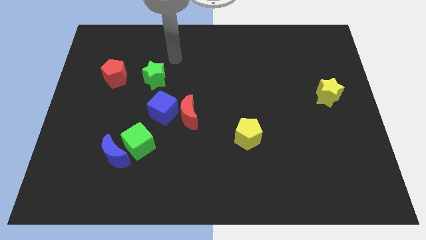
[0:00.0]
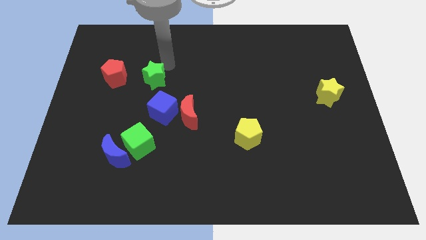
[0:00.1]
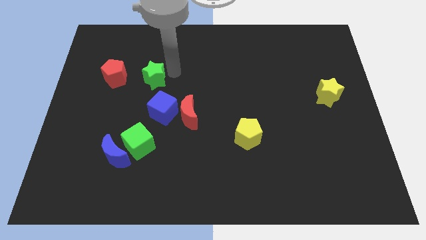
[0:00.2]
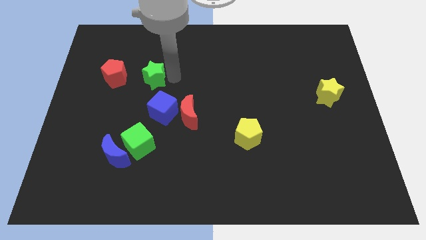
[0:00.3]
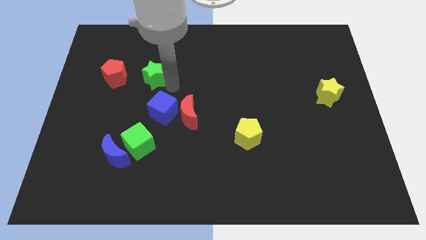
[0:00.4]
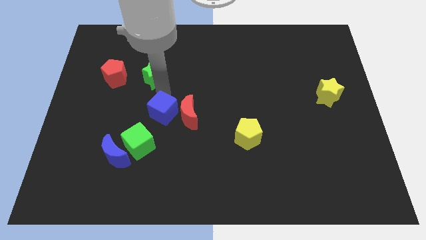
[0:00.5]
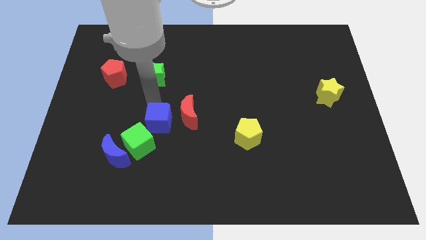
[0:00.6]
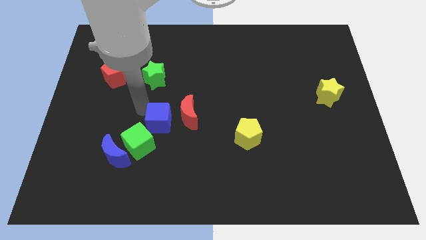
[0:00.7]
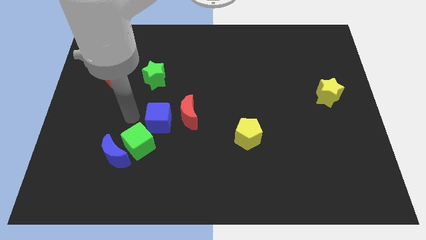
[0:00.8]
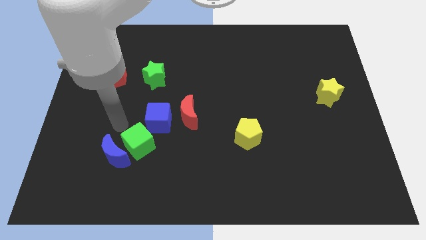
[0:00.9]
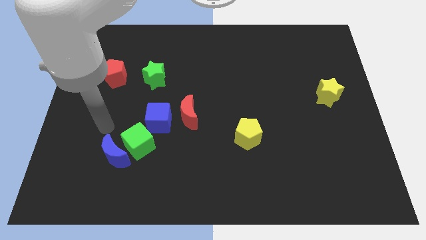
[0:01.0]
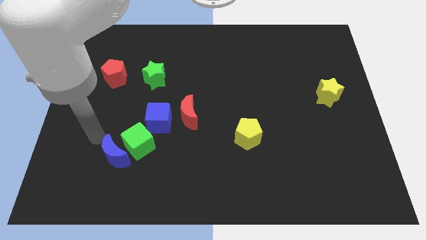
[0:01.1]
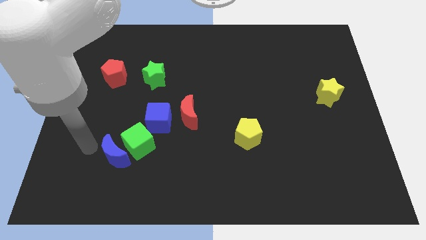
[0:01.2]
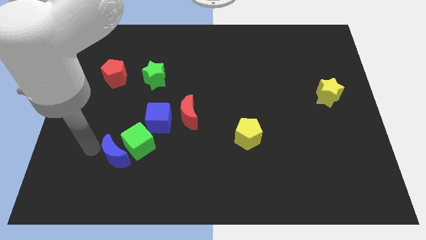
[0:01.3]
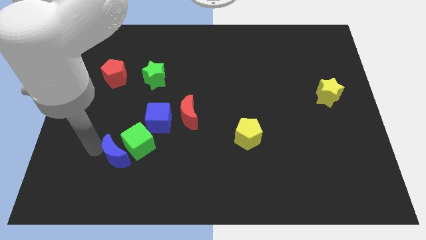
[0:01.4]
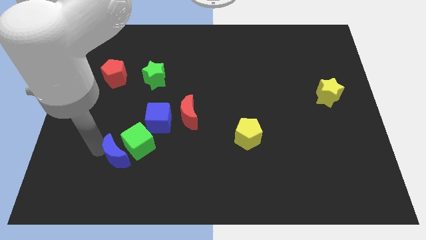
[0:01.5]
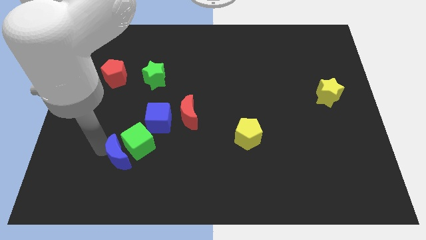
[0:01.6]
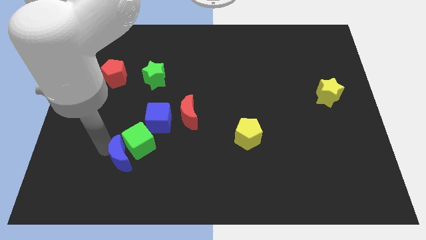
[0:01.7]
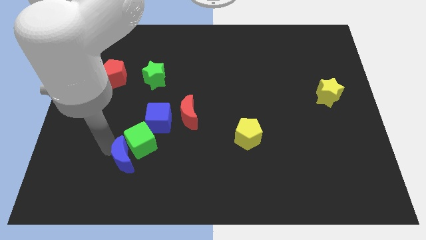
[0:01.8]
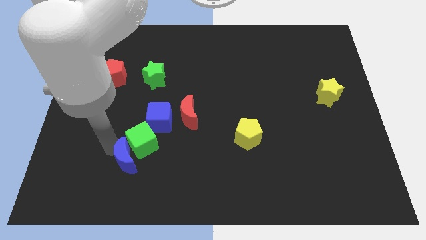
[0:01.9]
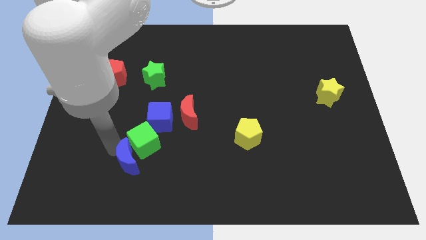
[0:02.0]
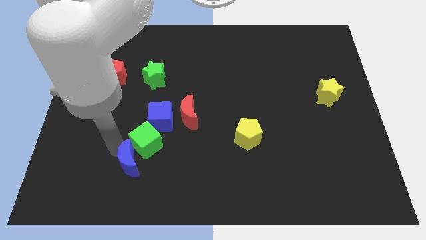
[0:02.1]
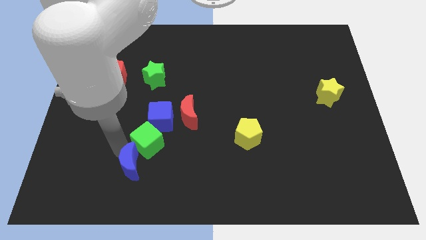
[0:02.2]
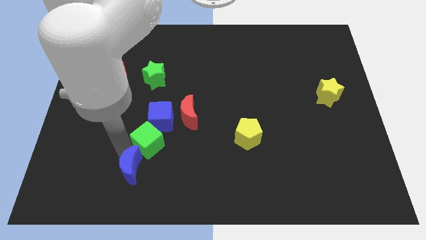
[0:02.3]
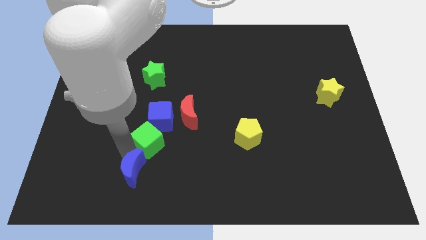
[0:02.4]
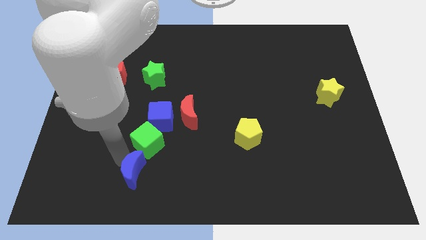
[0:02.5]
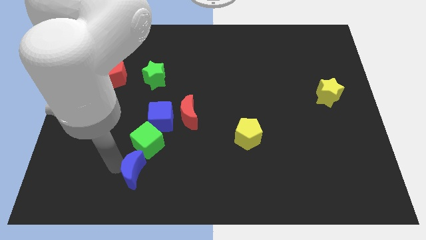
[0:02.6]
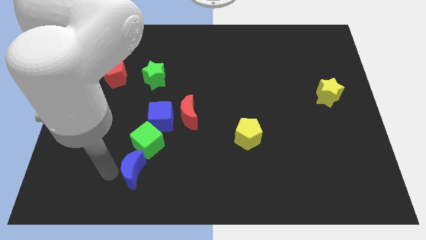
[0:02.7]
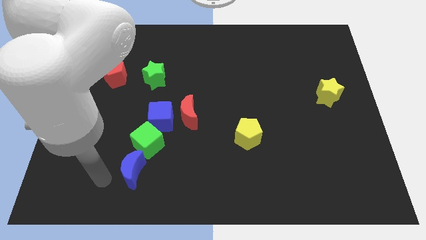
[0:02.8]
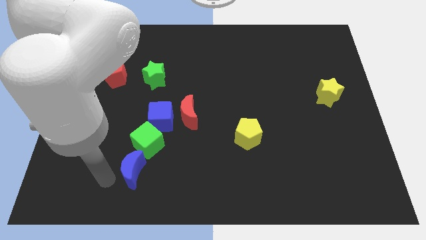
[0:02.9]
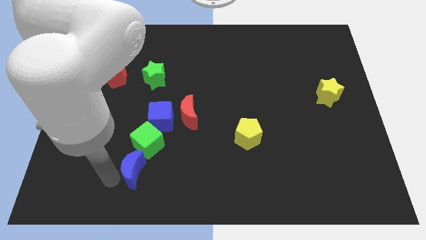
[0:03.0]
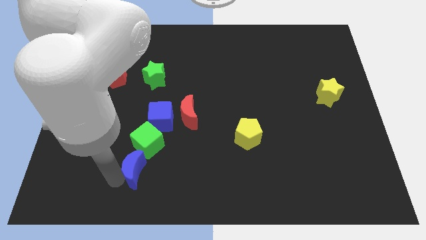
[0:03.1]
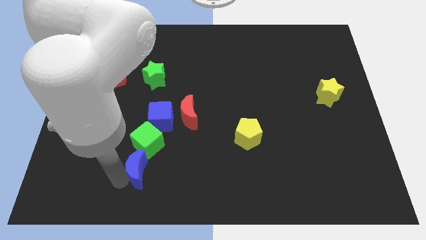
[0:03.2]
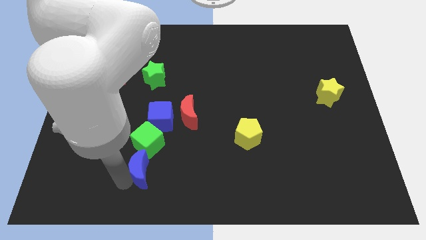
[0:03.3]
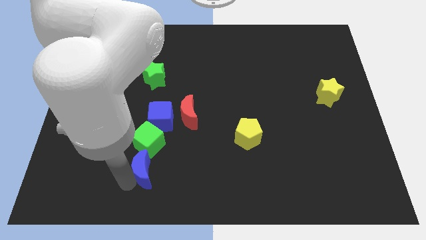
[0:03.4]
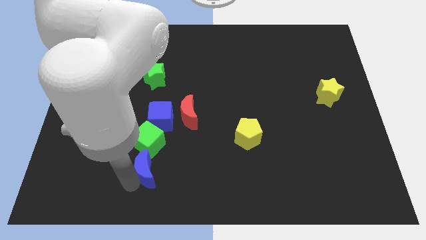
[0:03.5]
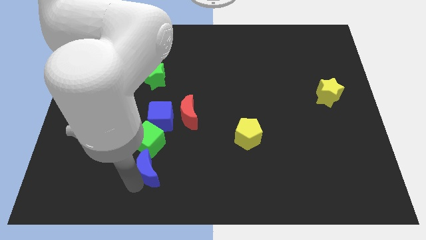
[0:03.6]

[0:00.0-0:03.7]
slightly slide the blue moon to the right

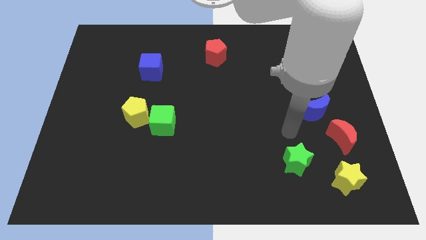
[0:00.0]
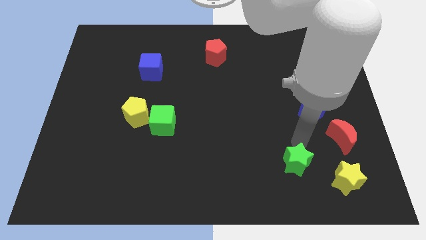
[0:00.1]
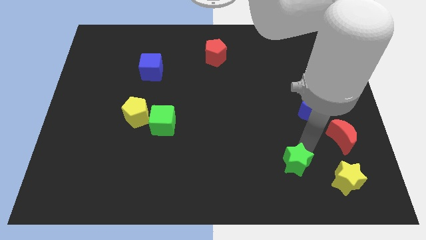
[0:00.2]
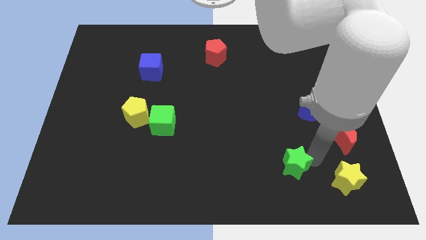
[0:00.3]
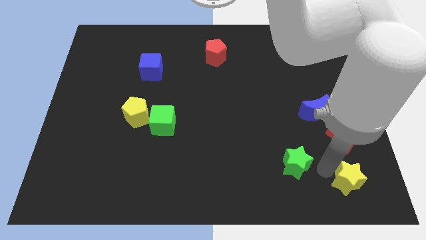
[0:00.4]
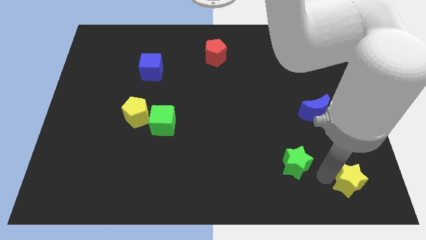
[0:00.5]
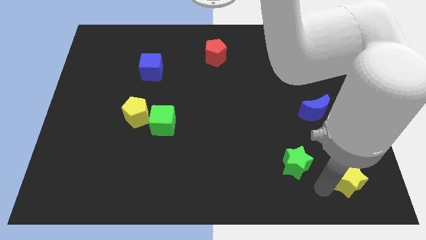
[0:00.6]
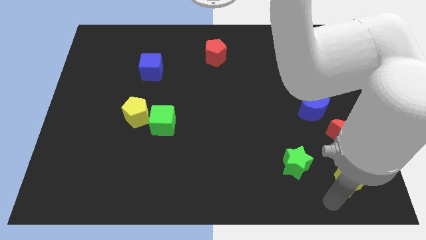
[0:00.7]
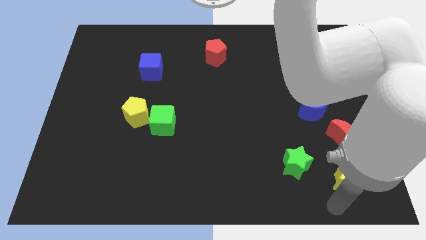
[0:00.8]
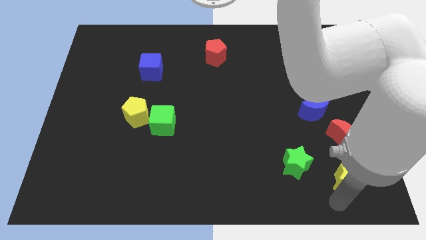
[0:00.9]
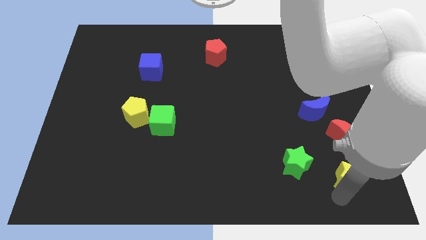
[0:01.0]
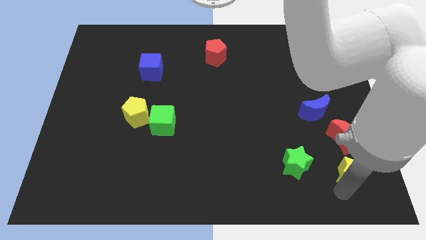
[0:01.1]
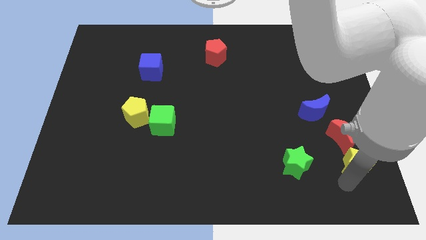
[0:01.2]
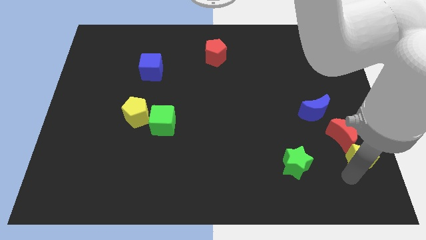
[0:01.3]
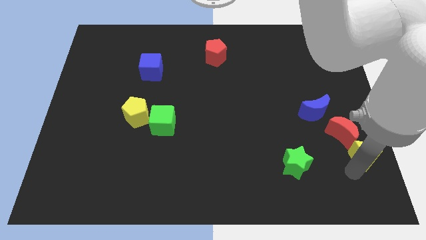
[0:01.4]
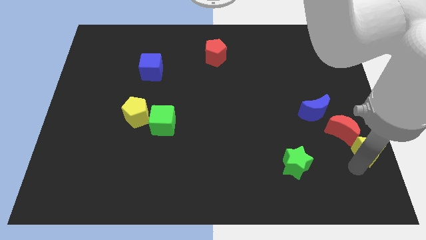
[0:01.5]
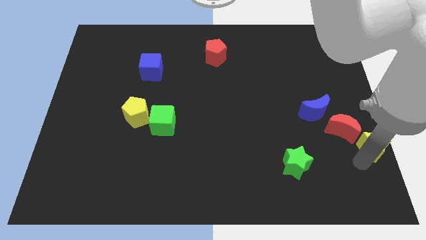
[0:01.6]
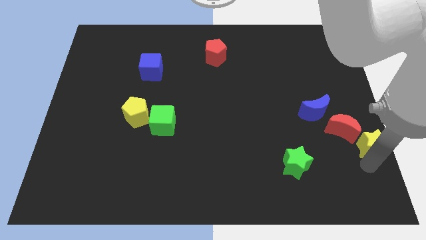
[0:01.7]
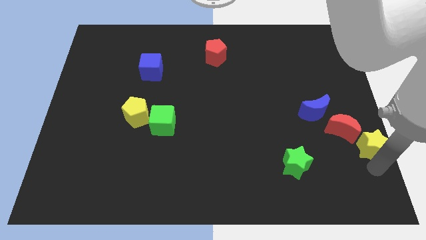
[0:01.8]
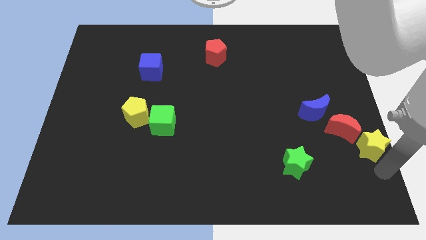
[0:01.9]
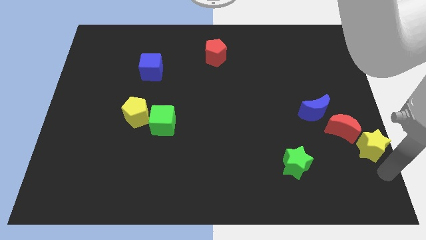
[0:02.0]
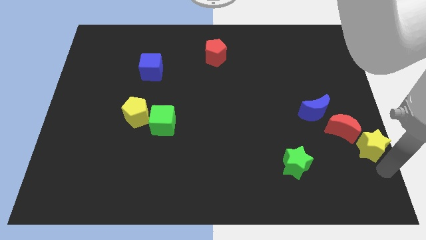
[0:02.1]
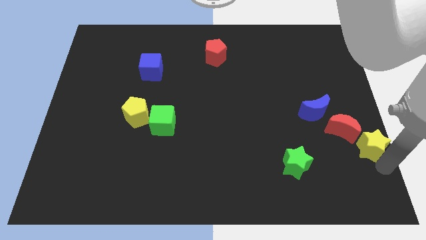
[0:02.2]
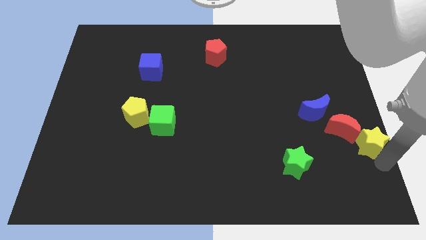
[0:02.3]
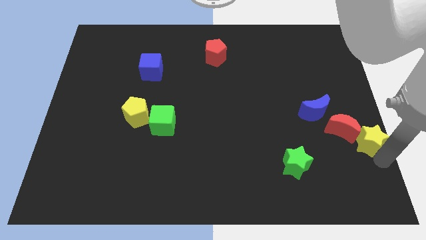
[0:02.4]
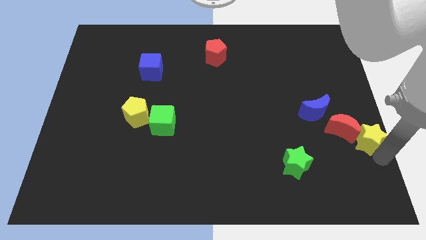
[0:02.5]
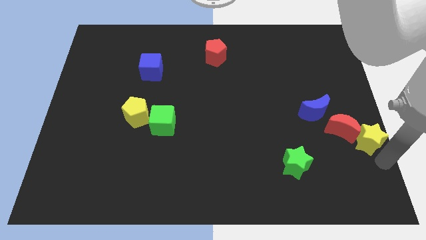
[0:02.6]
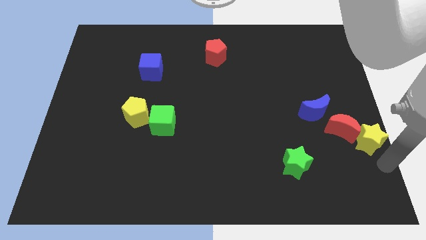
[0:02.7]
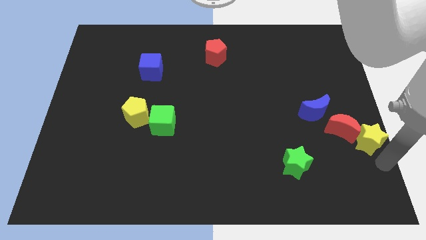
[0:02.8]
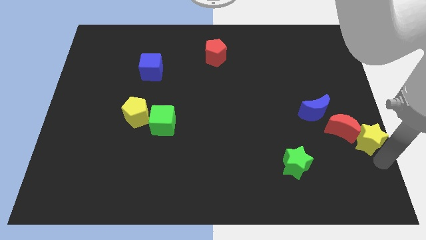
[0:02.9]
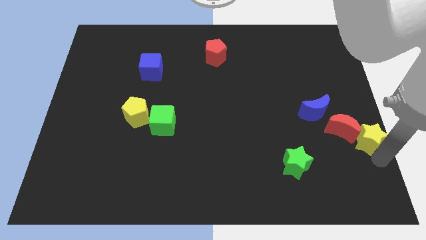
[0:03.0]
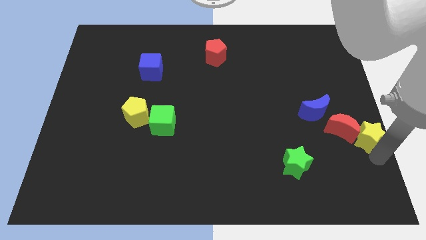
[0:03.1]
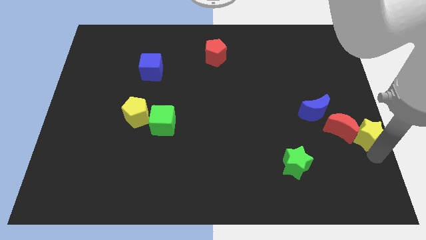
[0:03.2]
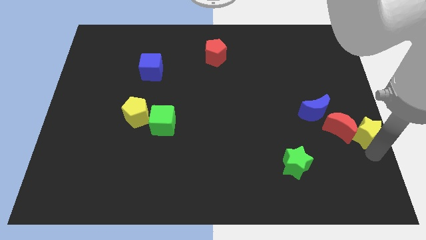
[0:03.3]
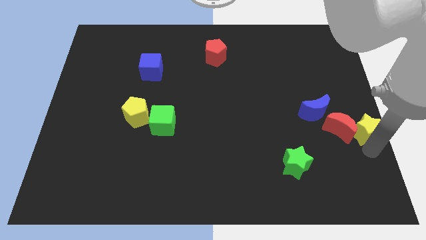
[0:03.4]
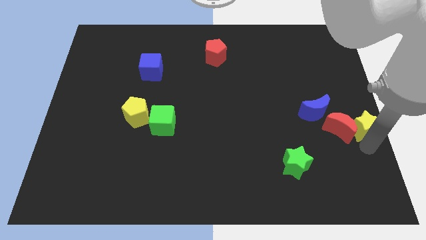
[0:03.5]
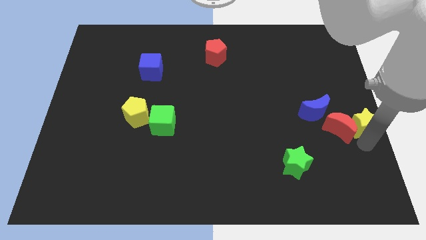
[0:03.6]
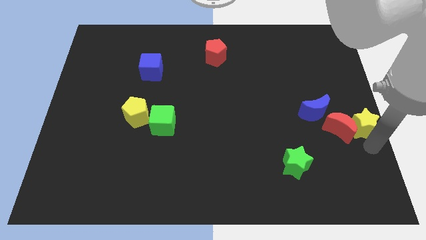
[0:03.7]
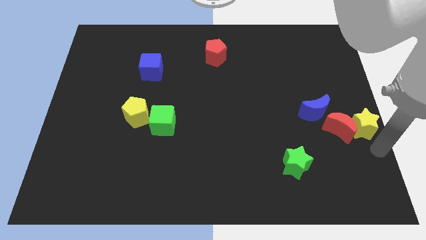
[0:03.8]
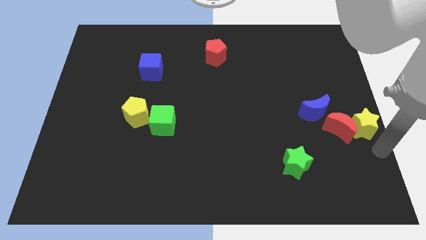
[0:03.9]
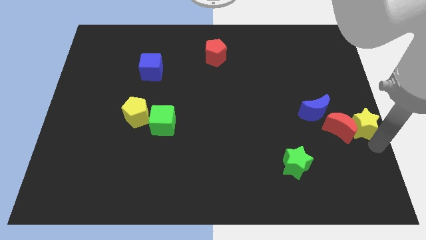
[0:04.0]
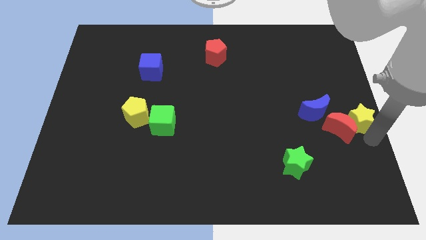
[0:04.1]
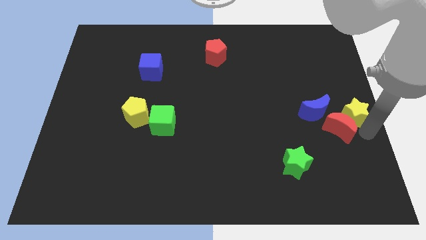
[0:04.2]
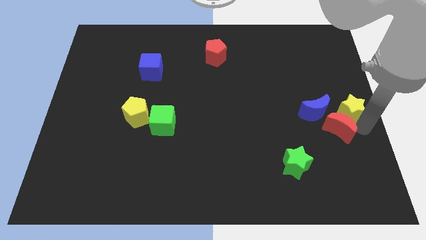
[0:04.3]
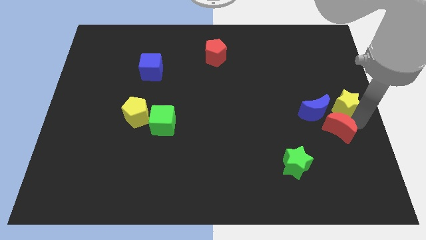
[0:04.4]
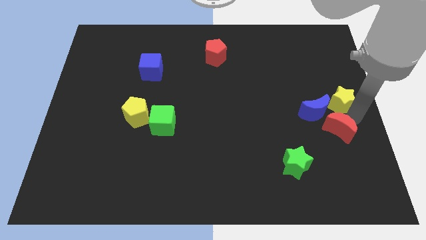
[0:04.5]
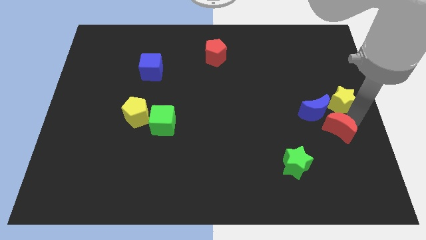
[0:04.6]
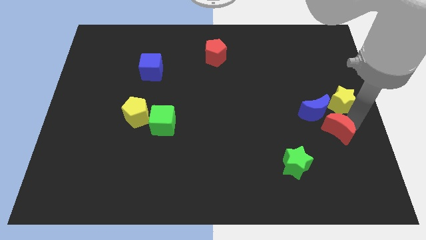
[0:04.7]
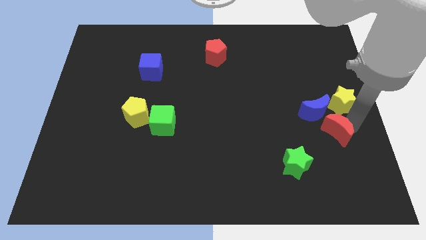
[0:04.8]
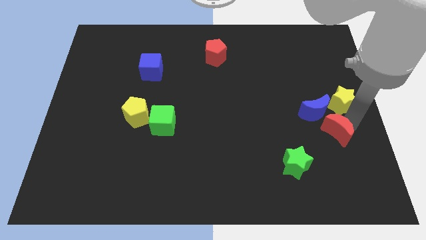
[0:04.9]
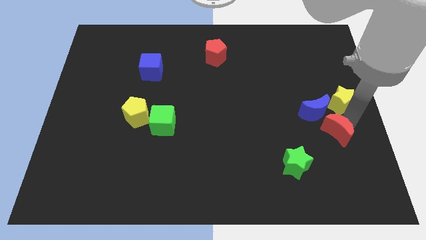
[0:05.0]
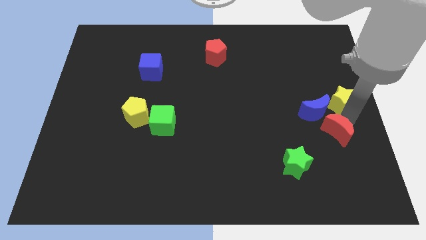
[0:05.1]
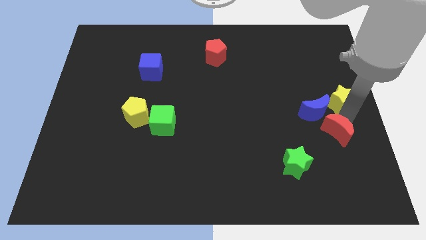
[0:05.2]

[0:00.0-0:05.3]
slide the yellow star upwards
